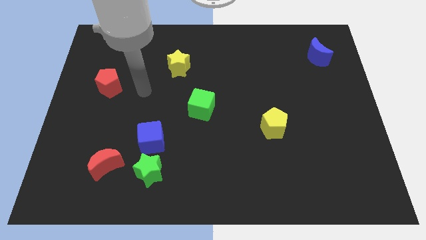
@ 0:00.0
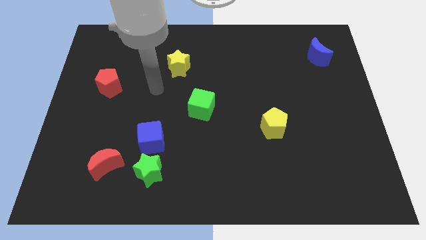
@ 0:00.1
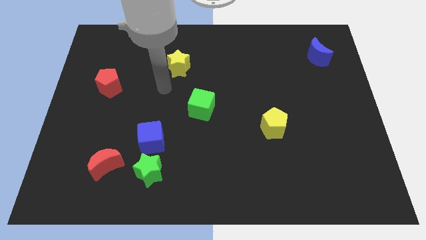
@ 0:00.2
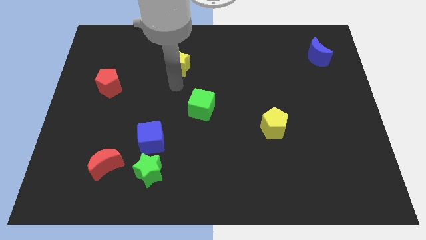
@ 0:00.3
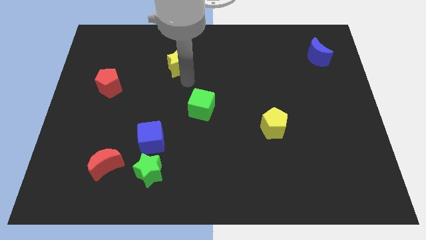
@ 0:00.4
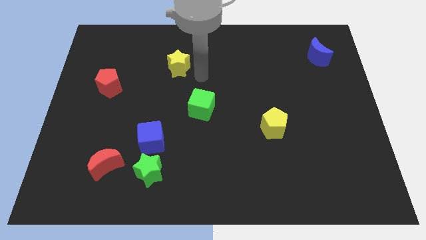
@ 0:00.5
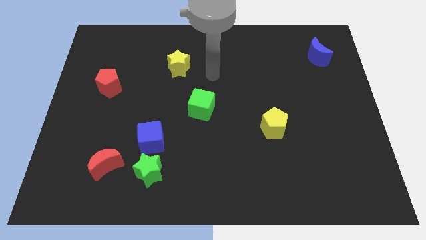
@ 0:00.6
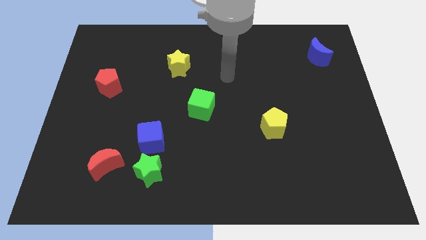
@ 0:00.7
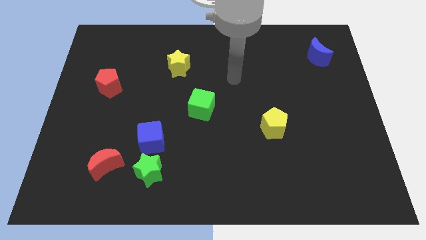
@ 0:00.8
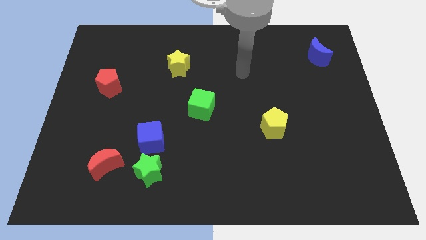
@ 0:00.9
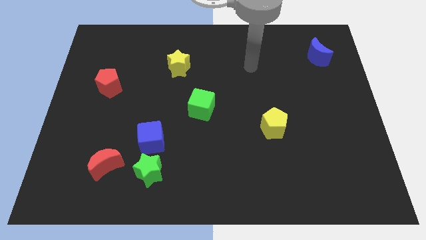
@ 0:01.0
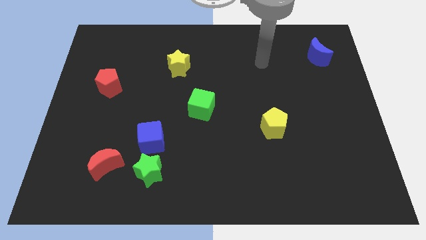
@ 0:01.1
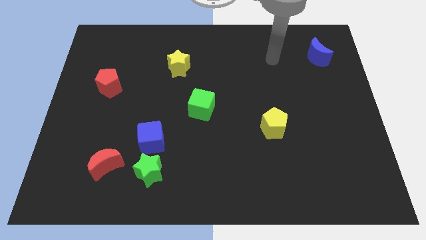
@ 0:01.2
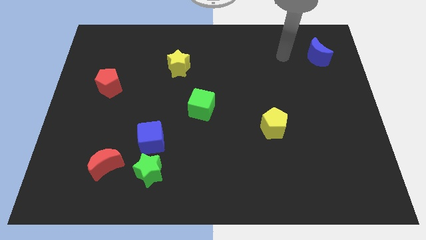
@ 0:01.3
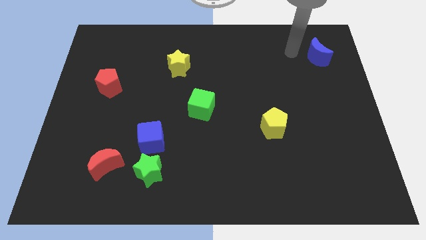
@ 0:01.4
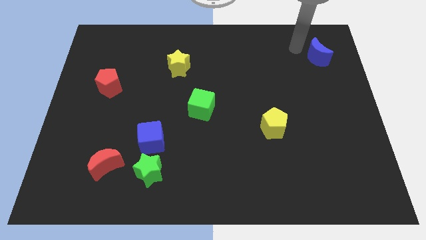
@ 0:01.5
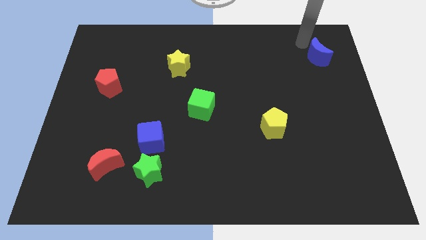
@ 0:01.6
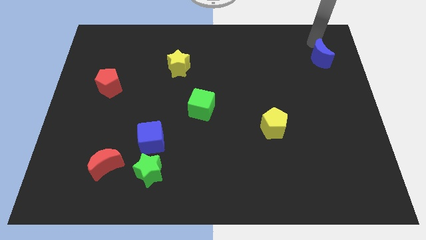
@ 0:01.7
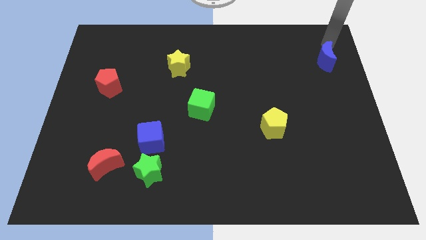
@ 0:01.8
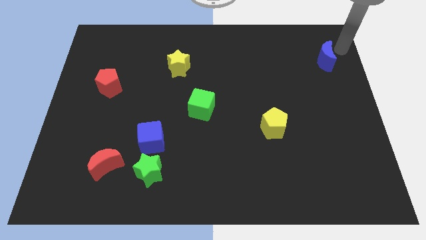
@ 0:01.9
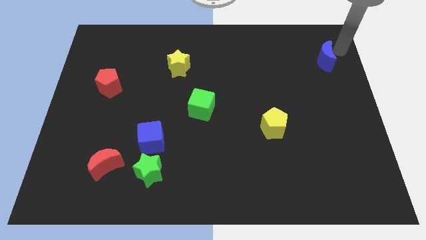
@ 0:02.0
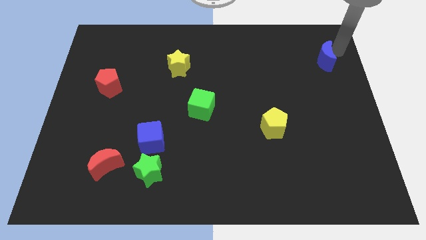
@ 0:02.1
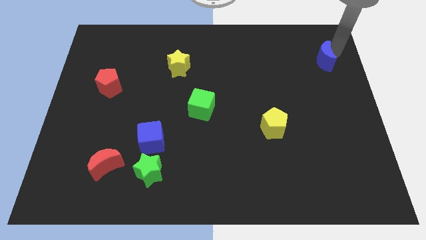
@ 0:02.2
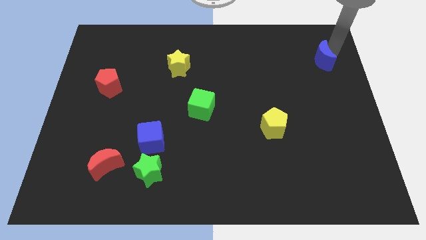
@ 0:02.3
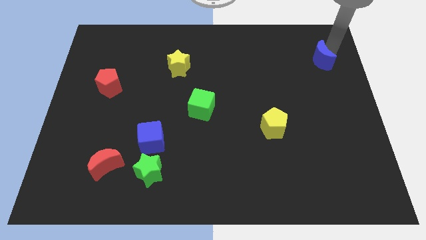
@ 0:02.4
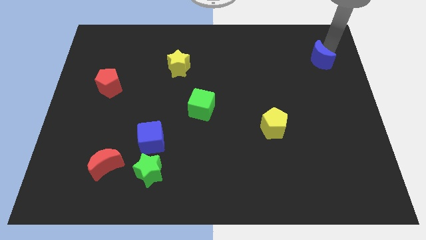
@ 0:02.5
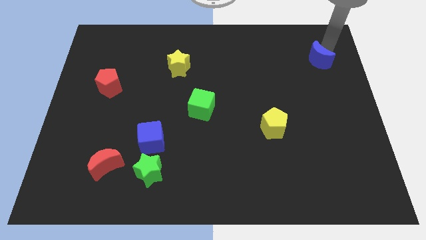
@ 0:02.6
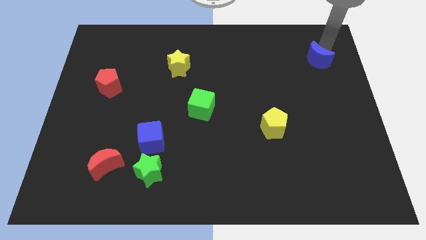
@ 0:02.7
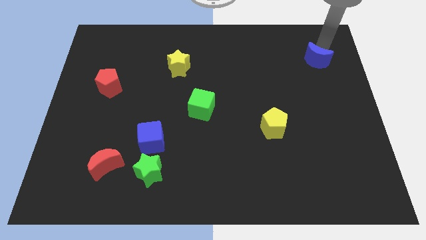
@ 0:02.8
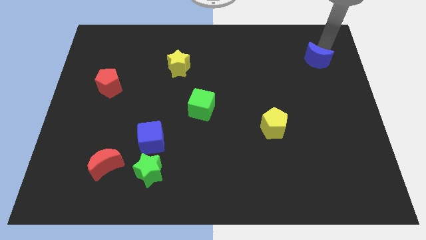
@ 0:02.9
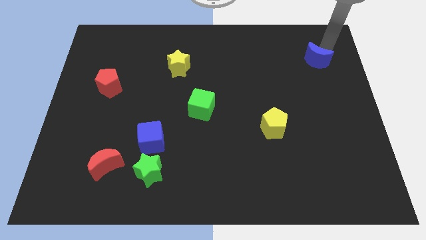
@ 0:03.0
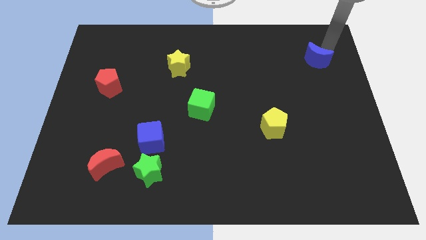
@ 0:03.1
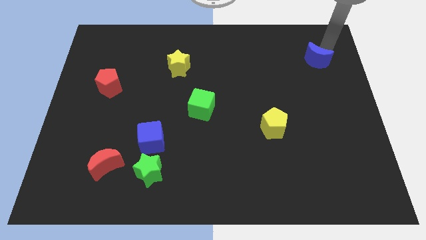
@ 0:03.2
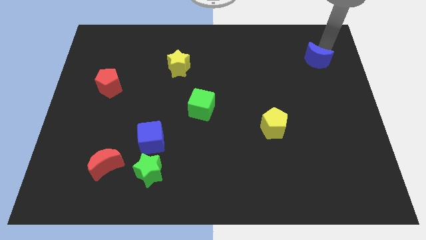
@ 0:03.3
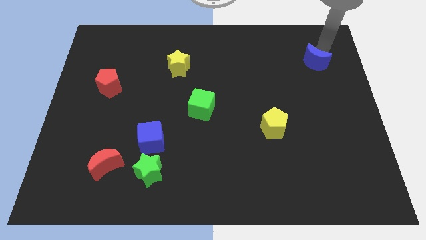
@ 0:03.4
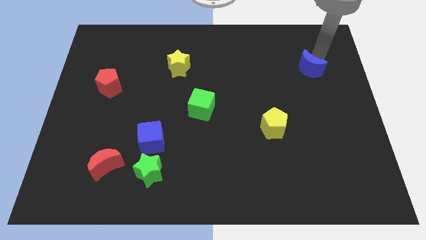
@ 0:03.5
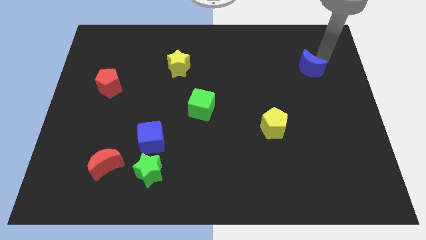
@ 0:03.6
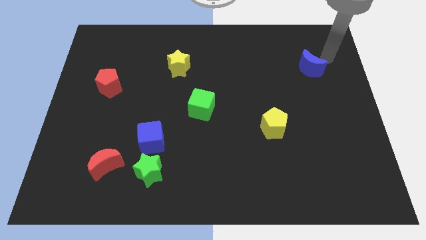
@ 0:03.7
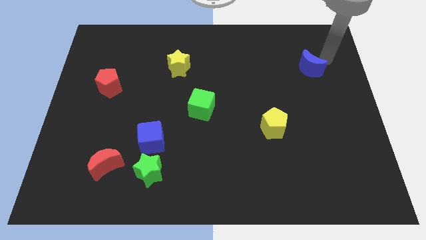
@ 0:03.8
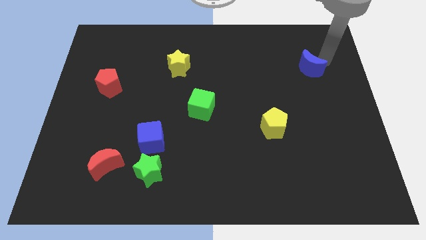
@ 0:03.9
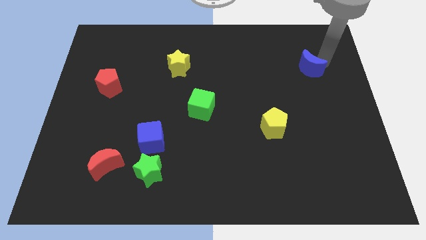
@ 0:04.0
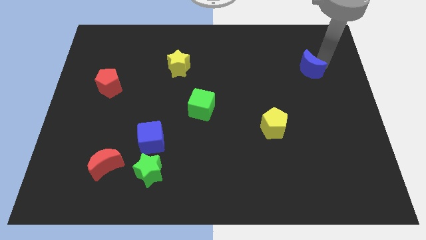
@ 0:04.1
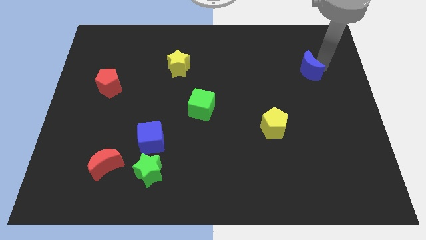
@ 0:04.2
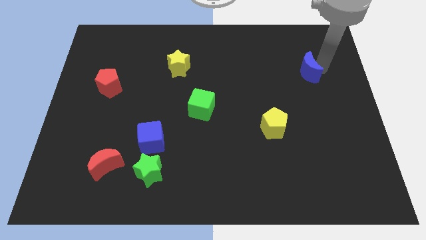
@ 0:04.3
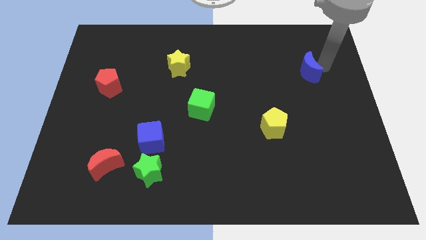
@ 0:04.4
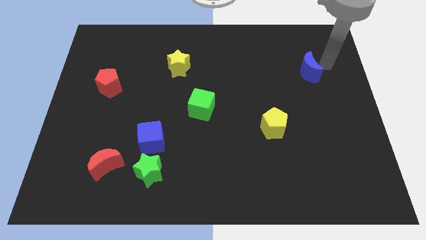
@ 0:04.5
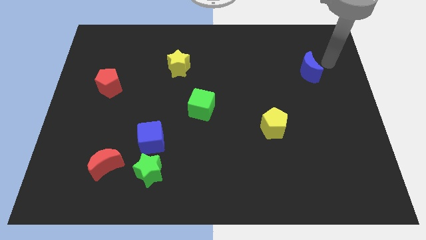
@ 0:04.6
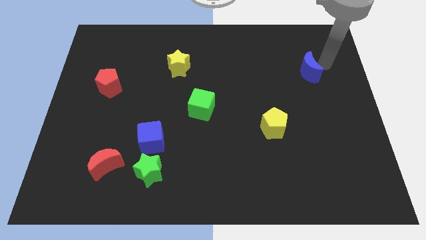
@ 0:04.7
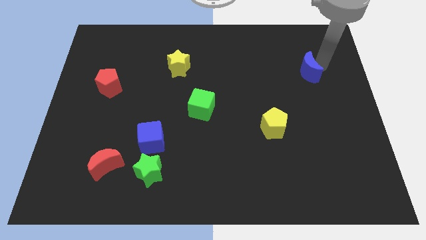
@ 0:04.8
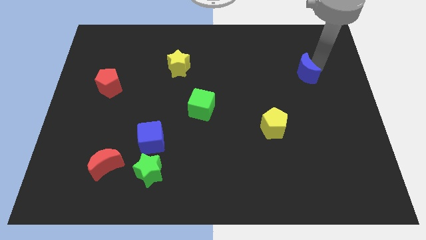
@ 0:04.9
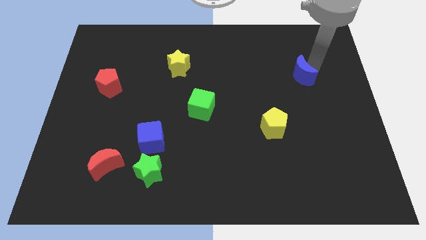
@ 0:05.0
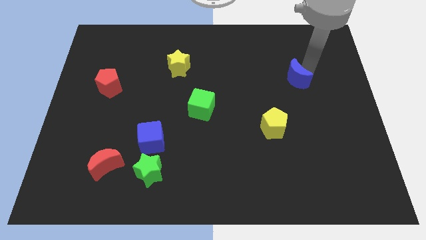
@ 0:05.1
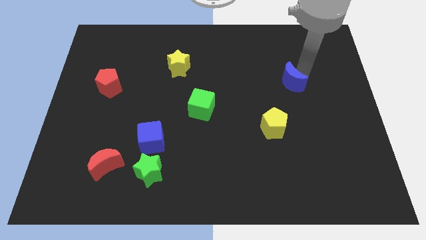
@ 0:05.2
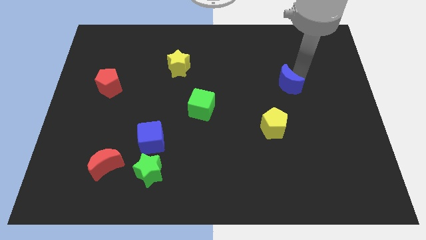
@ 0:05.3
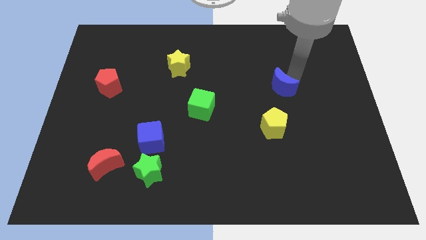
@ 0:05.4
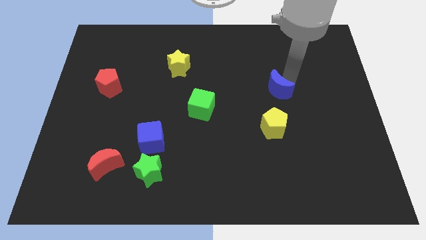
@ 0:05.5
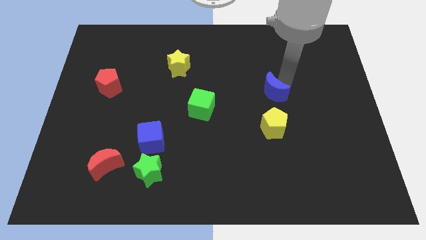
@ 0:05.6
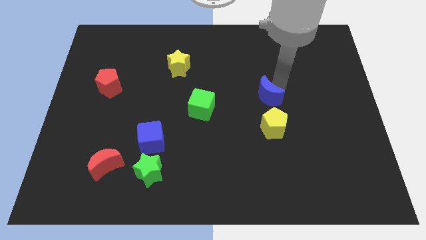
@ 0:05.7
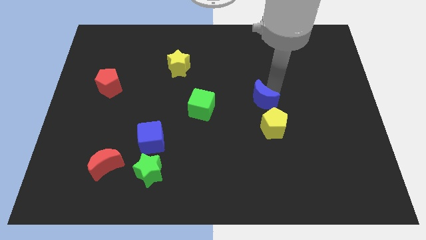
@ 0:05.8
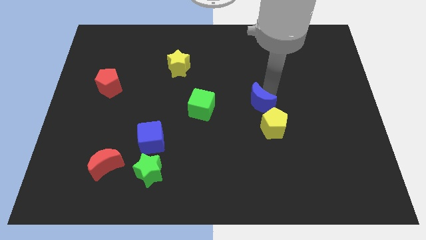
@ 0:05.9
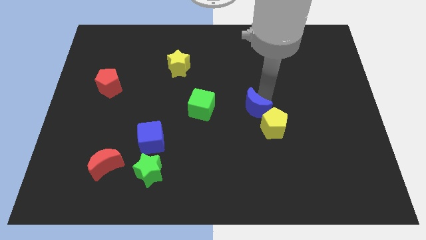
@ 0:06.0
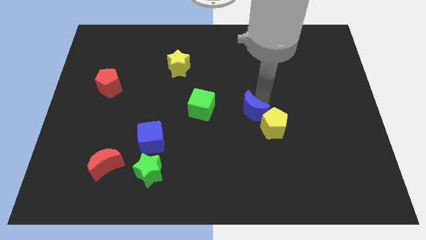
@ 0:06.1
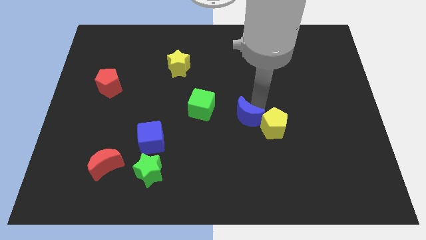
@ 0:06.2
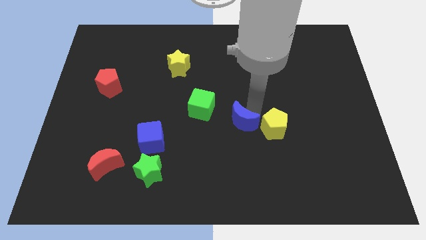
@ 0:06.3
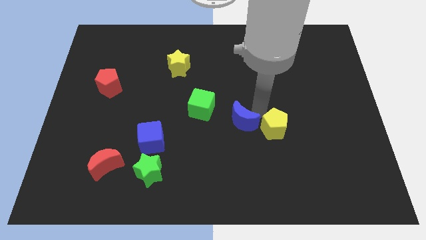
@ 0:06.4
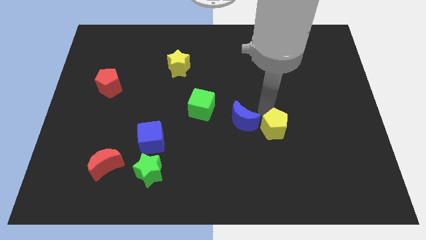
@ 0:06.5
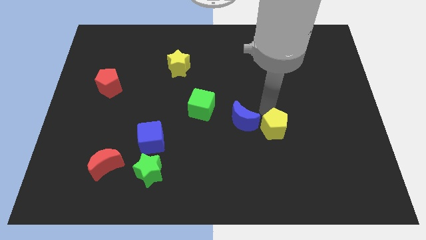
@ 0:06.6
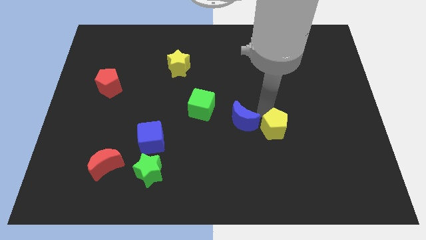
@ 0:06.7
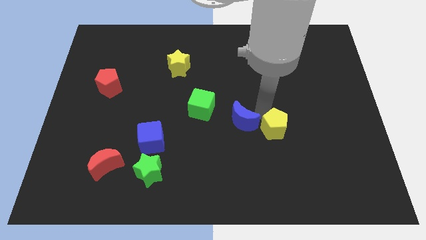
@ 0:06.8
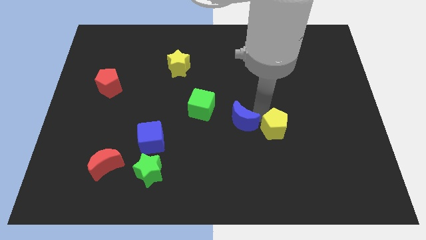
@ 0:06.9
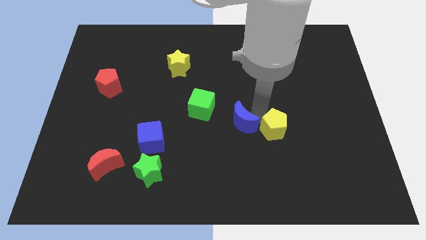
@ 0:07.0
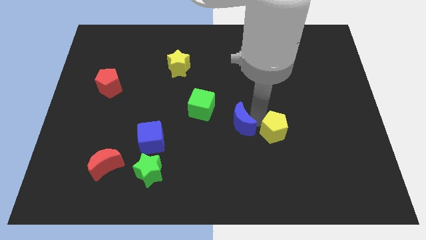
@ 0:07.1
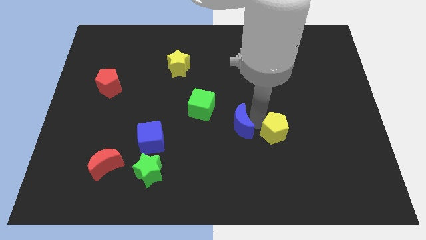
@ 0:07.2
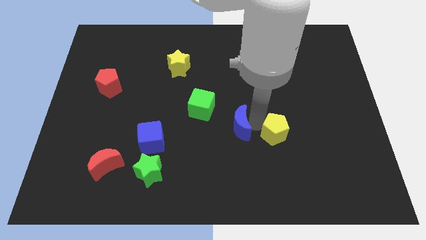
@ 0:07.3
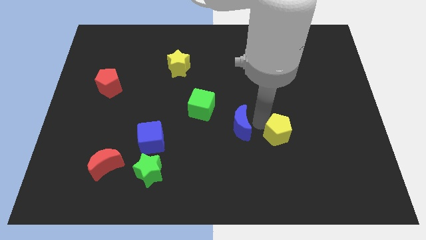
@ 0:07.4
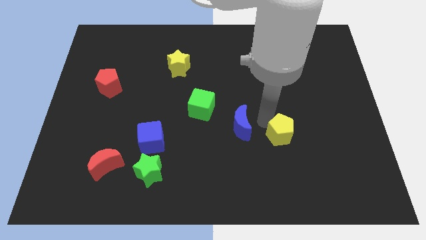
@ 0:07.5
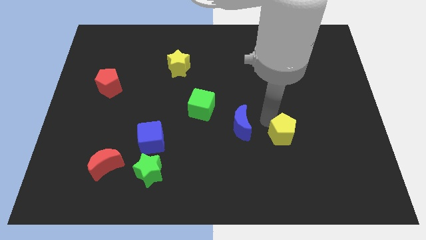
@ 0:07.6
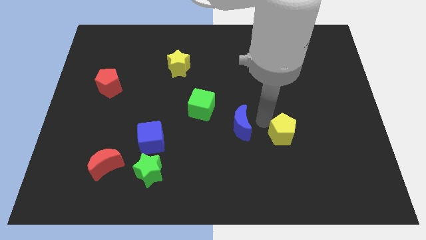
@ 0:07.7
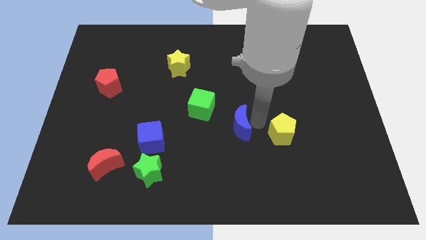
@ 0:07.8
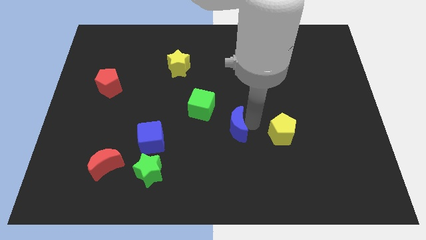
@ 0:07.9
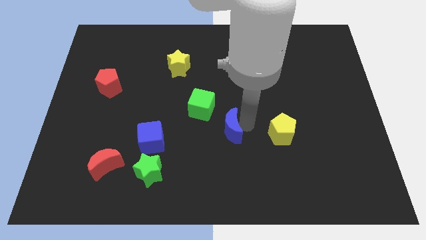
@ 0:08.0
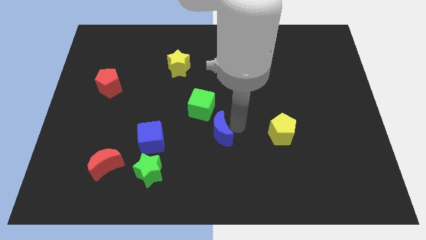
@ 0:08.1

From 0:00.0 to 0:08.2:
move the blue moon to the bottom of the green cube
